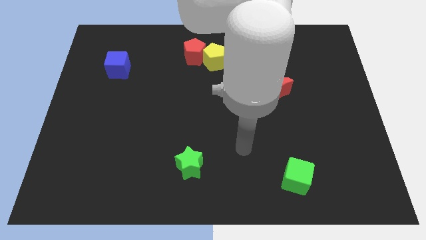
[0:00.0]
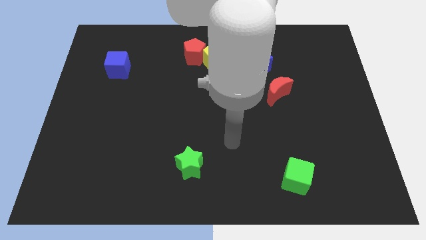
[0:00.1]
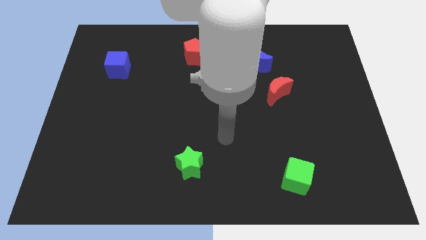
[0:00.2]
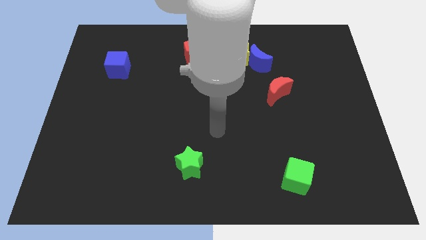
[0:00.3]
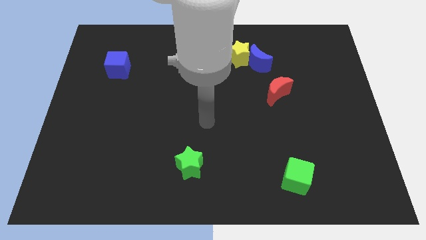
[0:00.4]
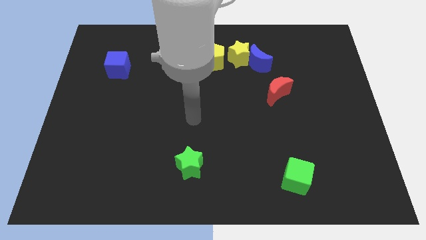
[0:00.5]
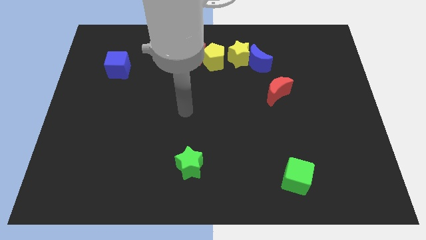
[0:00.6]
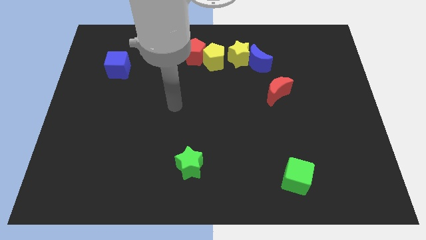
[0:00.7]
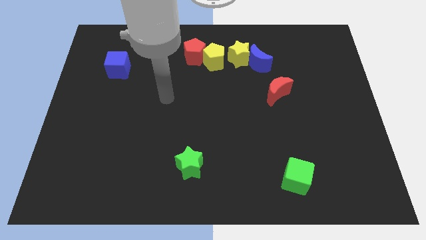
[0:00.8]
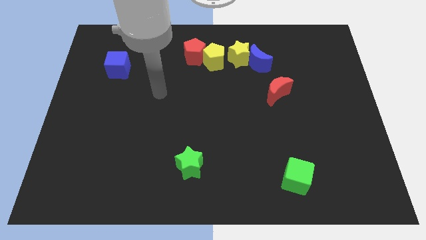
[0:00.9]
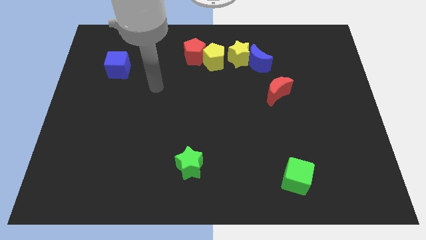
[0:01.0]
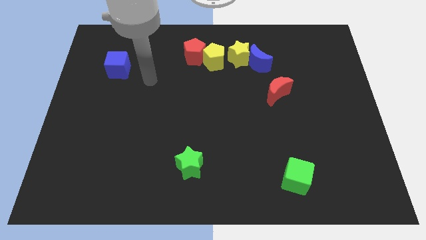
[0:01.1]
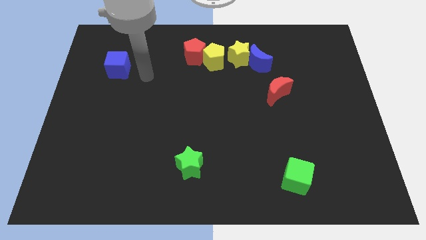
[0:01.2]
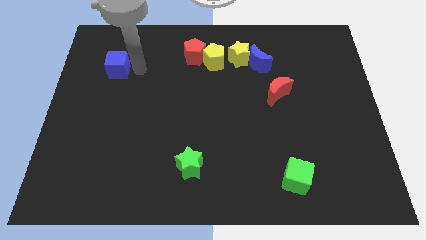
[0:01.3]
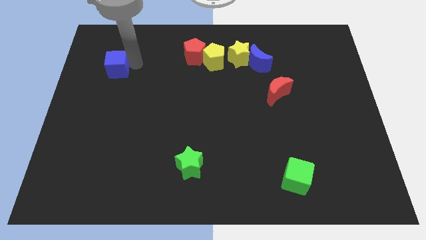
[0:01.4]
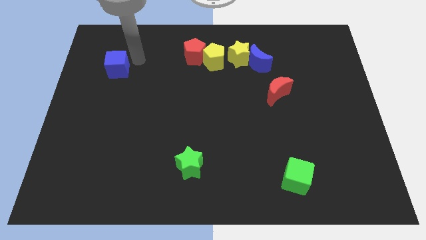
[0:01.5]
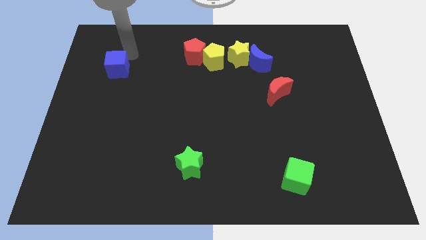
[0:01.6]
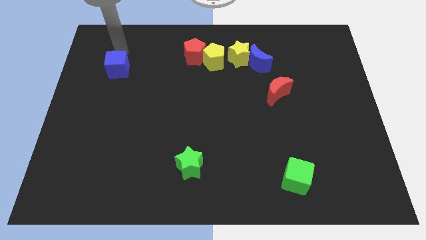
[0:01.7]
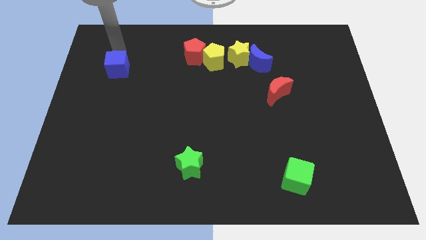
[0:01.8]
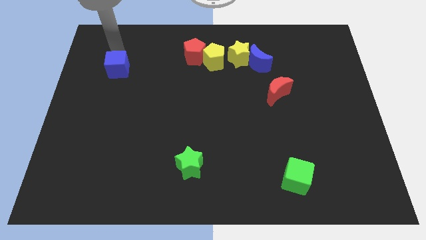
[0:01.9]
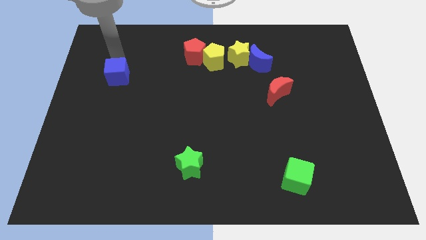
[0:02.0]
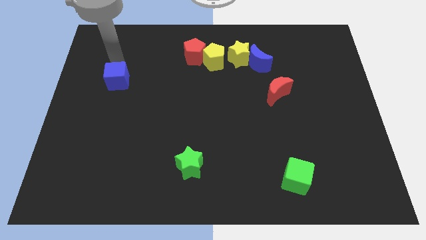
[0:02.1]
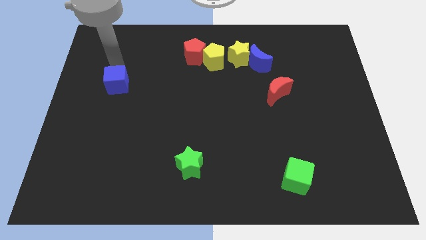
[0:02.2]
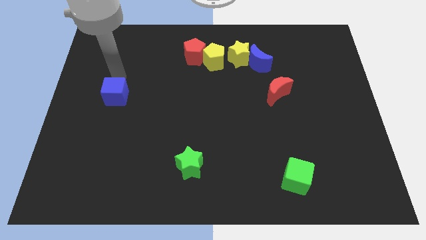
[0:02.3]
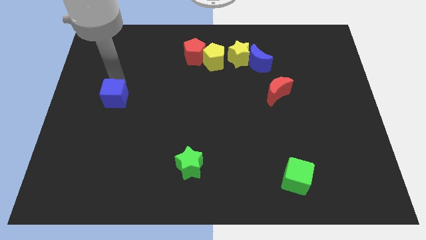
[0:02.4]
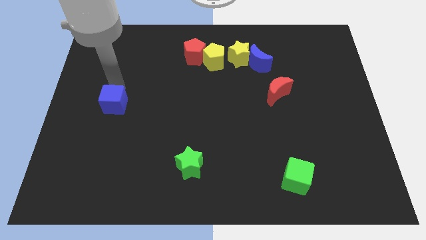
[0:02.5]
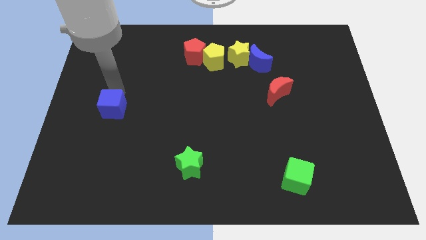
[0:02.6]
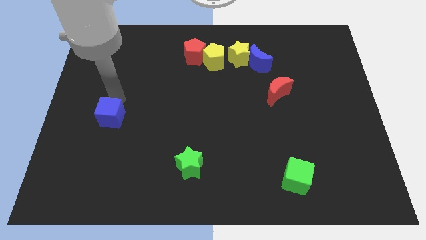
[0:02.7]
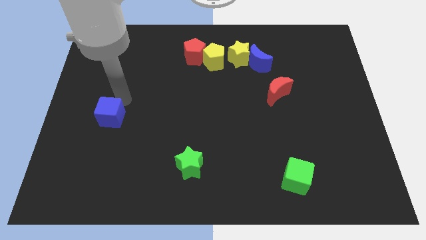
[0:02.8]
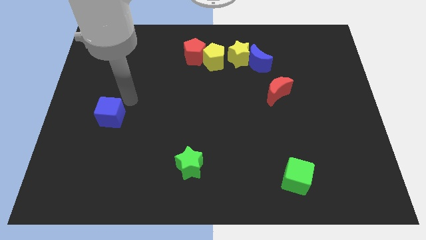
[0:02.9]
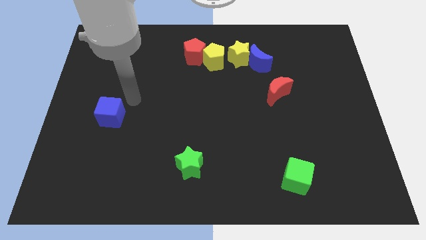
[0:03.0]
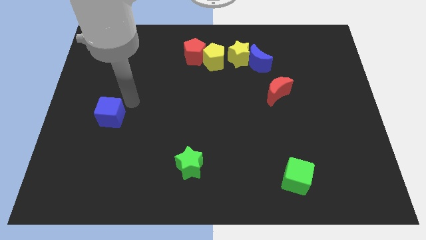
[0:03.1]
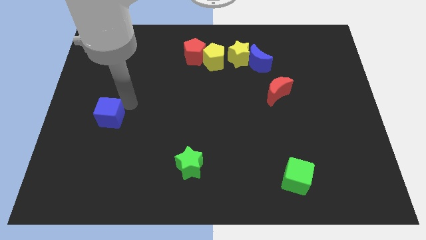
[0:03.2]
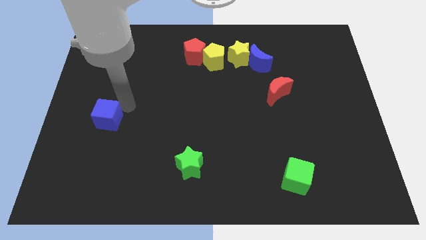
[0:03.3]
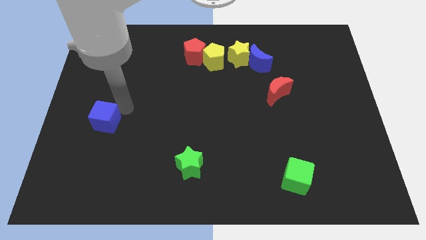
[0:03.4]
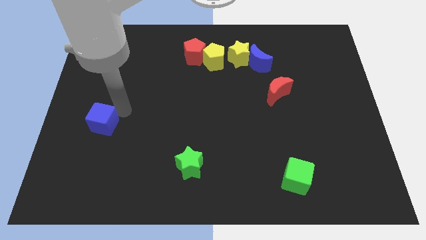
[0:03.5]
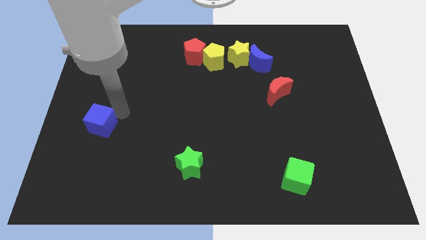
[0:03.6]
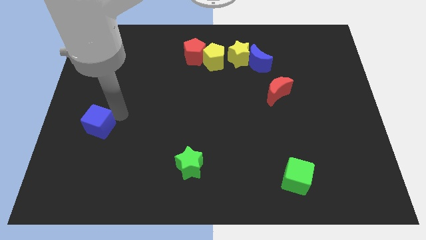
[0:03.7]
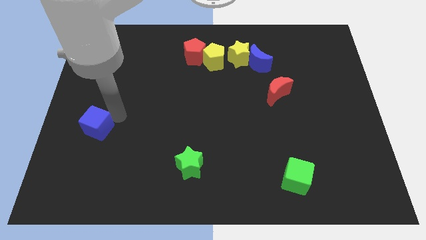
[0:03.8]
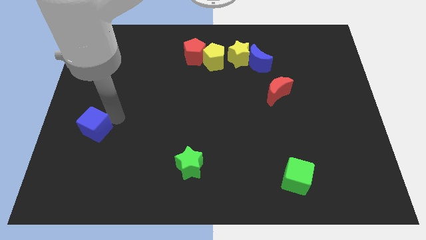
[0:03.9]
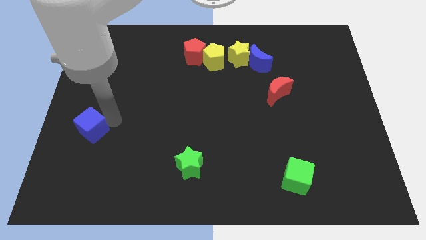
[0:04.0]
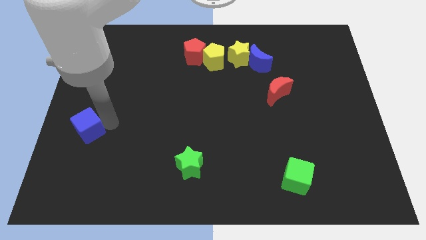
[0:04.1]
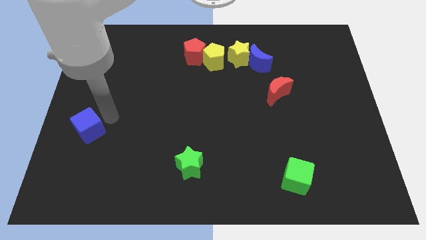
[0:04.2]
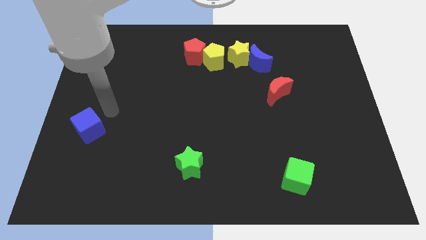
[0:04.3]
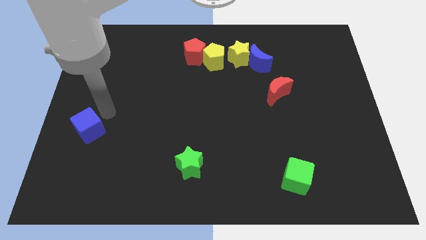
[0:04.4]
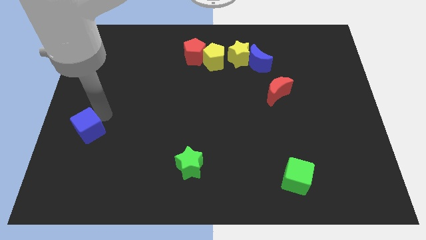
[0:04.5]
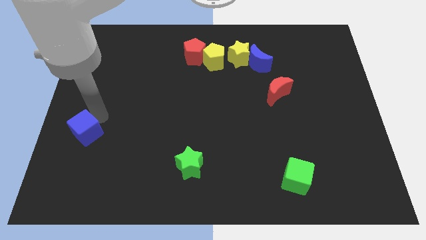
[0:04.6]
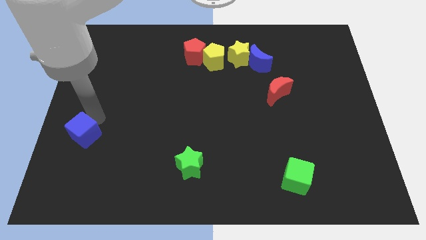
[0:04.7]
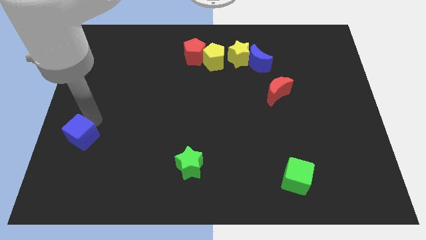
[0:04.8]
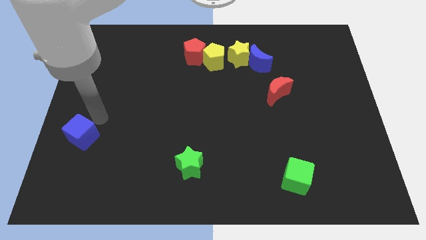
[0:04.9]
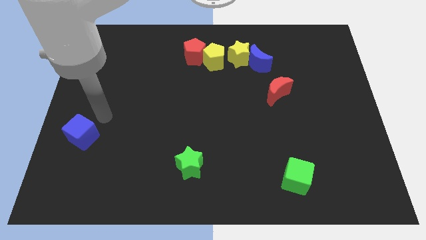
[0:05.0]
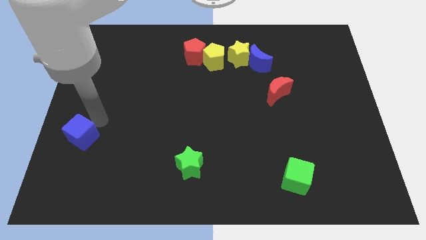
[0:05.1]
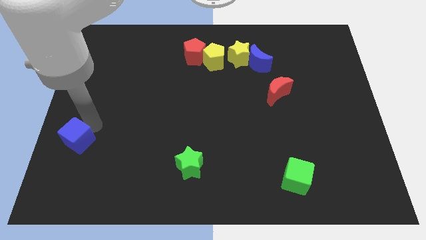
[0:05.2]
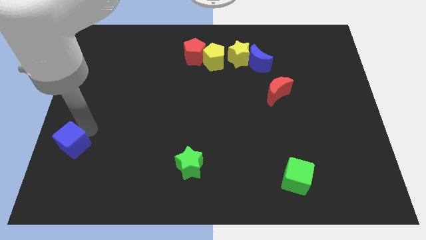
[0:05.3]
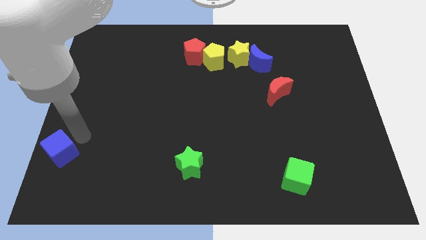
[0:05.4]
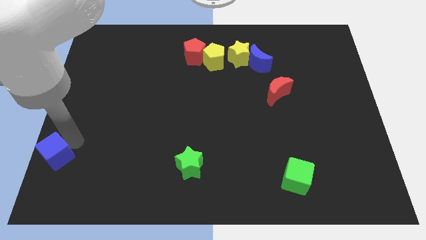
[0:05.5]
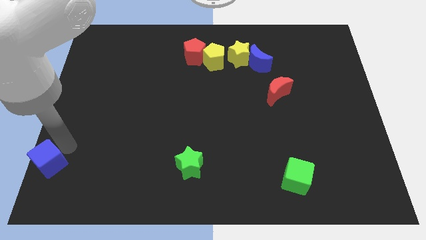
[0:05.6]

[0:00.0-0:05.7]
slide the blue cube to the bottom left of the board

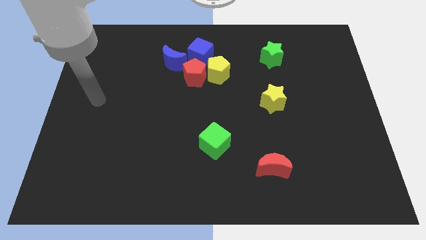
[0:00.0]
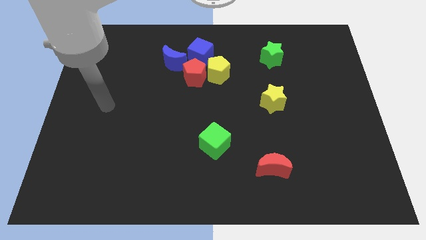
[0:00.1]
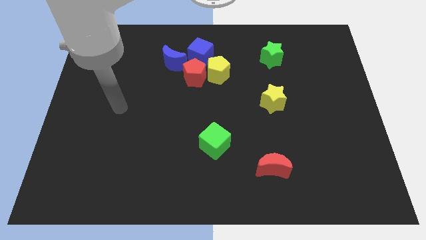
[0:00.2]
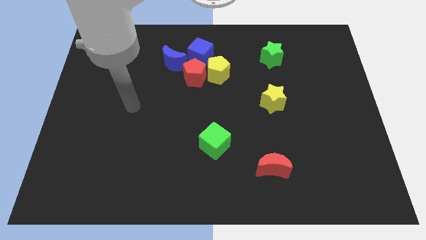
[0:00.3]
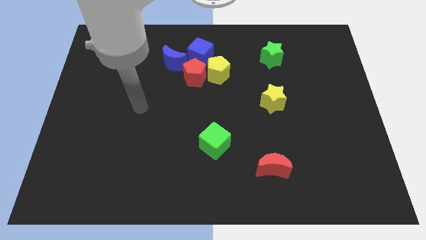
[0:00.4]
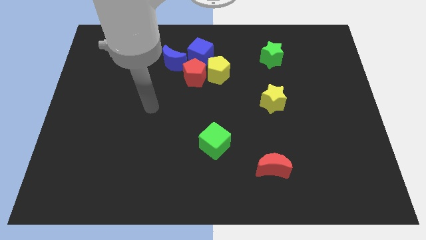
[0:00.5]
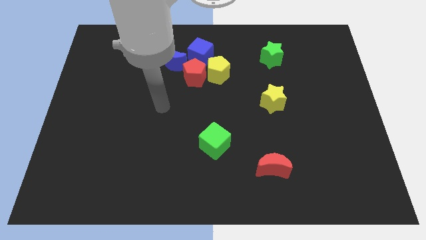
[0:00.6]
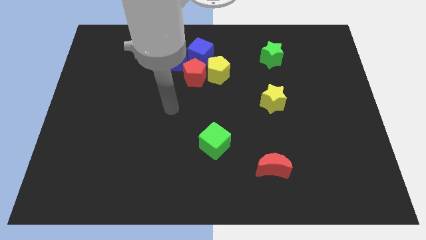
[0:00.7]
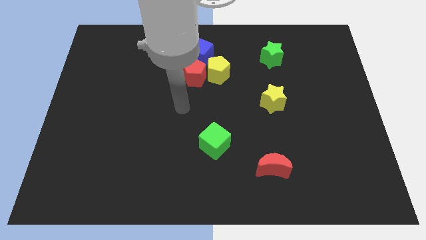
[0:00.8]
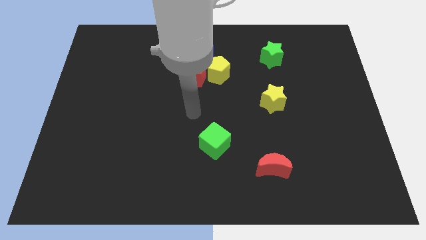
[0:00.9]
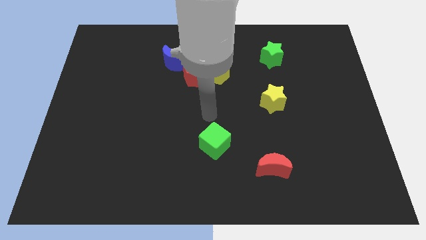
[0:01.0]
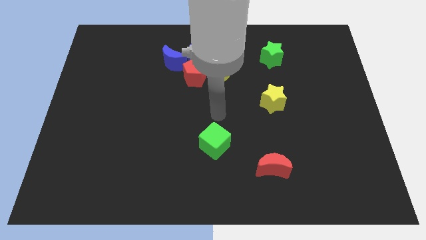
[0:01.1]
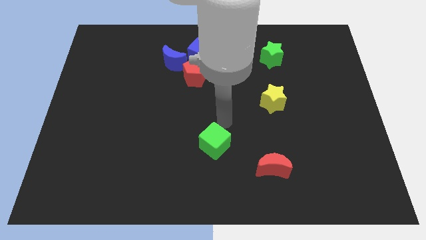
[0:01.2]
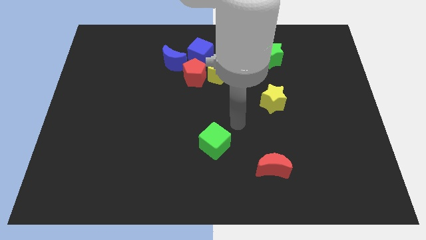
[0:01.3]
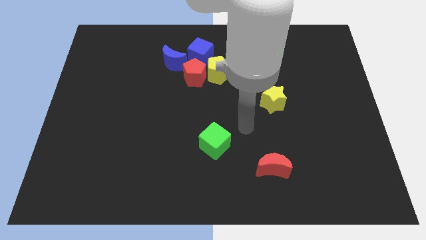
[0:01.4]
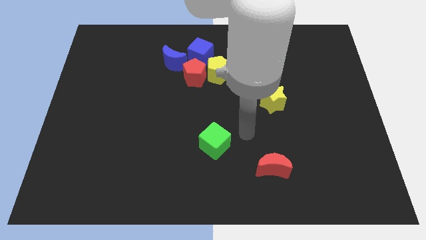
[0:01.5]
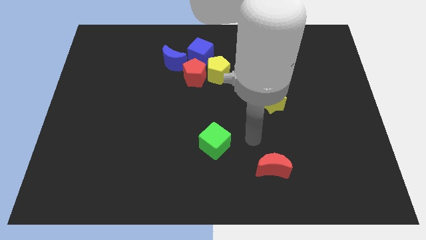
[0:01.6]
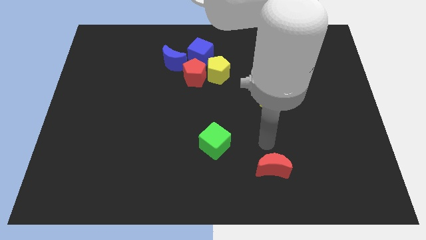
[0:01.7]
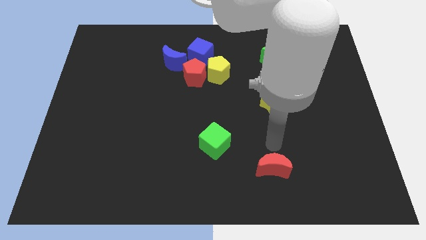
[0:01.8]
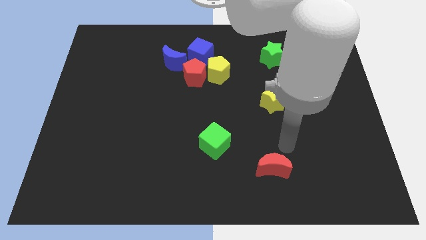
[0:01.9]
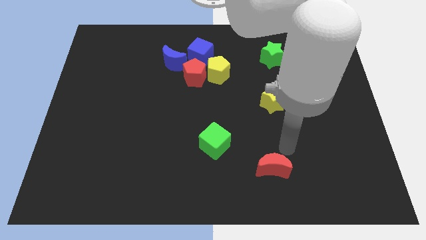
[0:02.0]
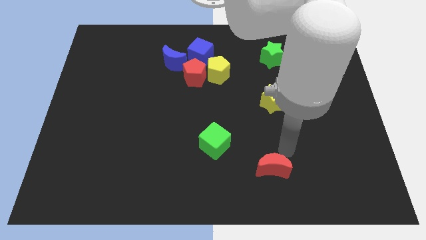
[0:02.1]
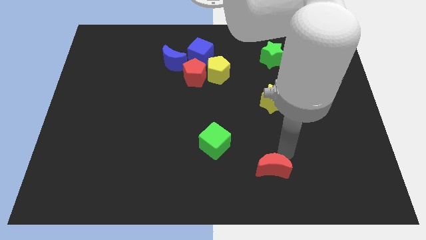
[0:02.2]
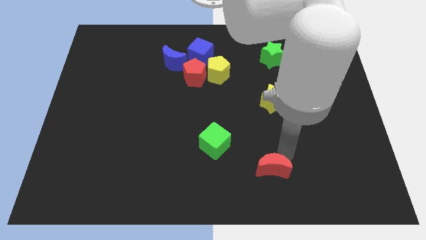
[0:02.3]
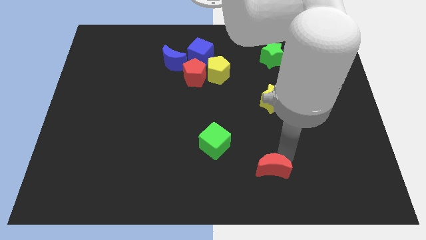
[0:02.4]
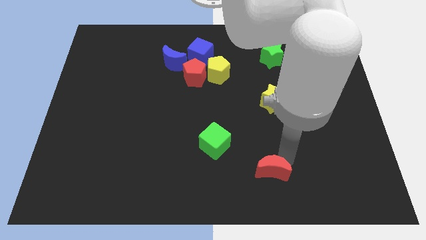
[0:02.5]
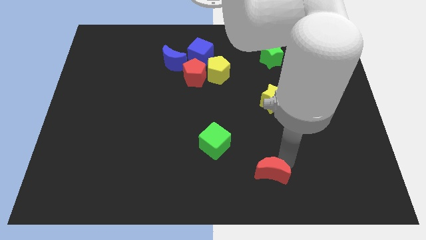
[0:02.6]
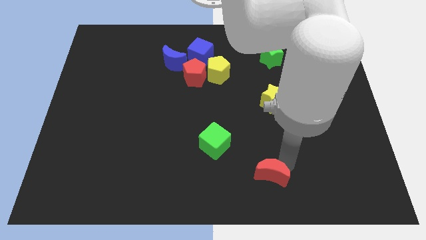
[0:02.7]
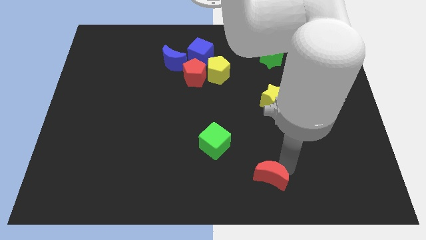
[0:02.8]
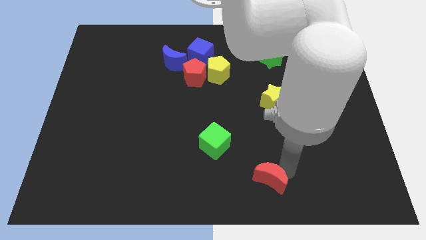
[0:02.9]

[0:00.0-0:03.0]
put the red moon to the bottom side
